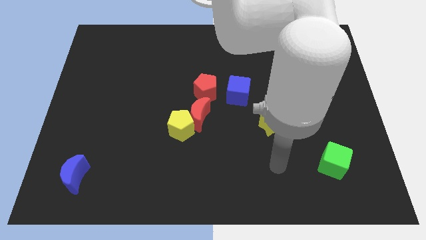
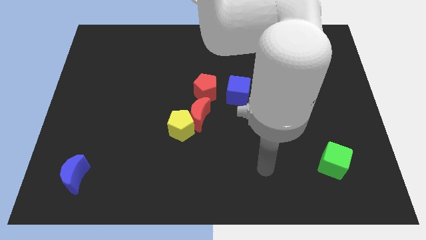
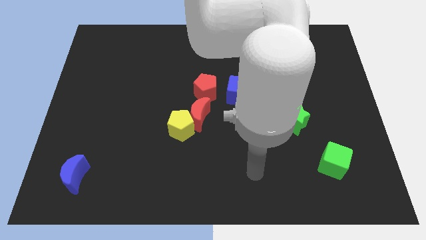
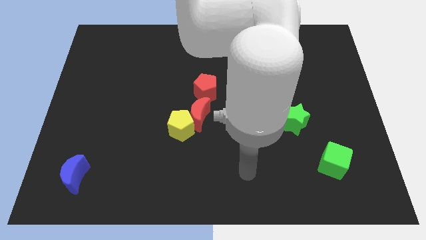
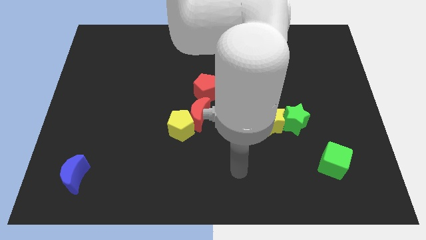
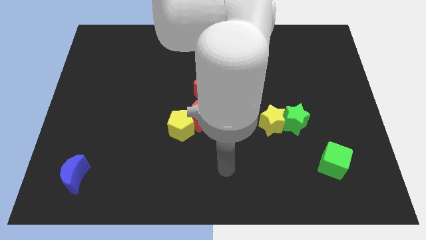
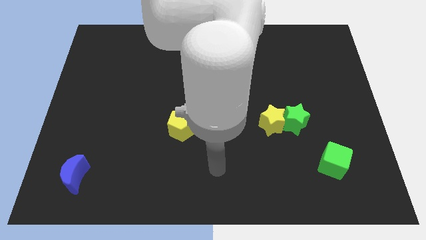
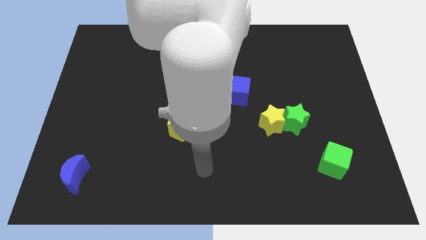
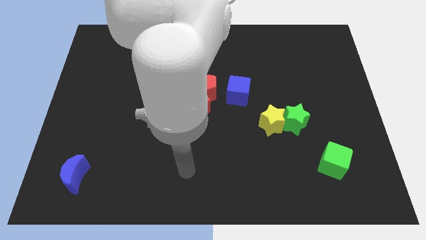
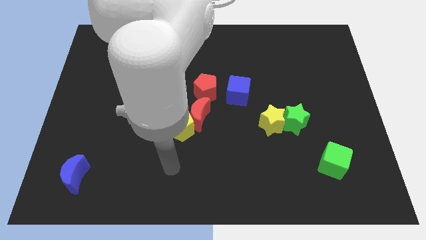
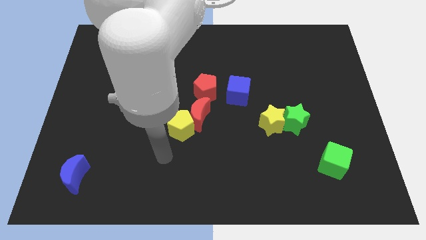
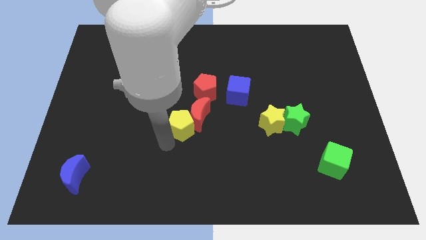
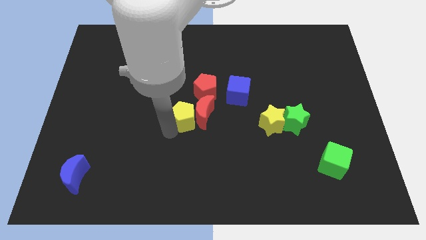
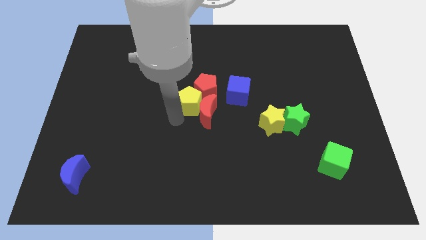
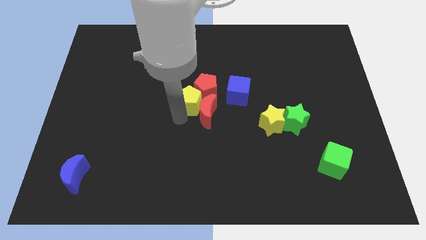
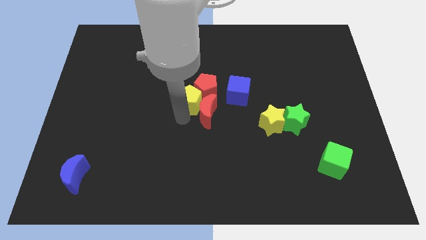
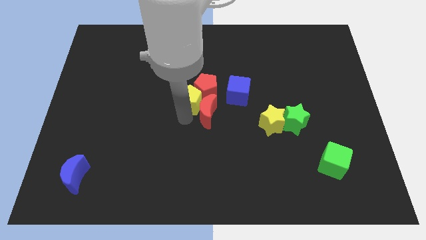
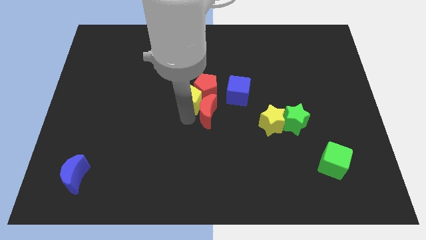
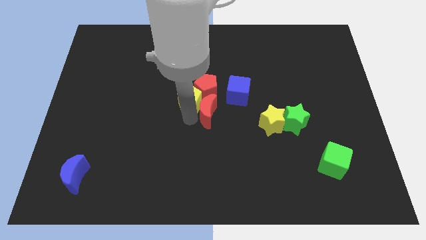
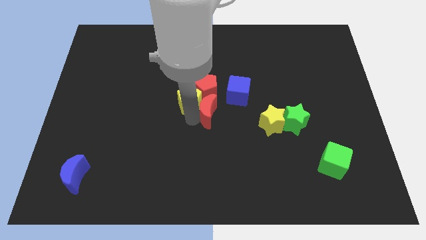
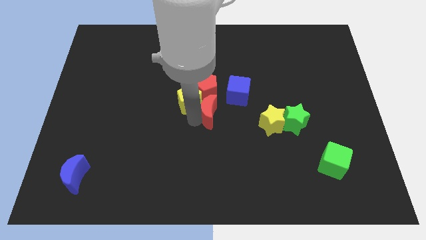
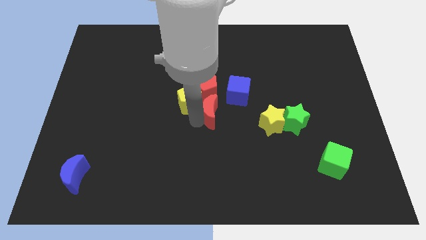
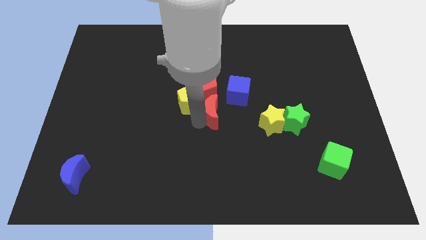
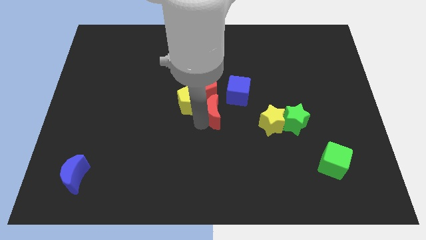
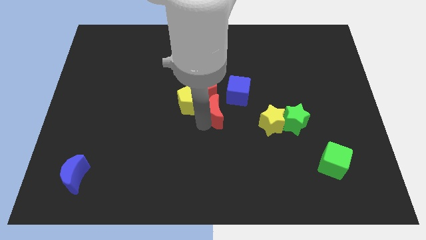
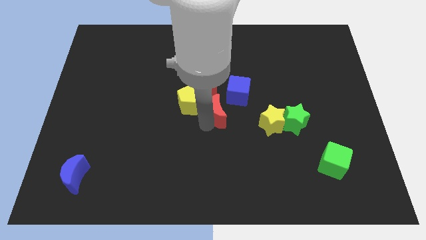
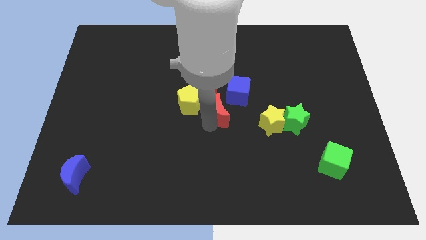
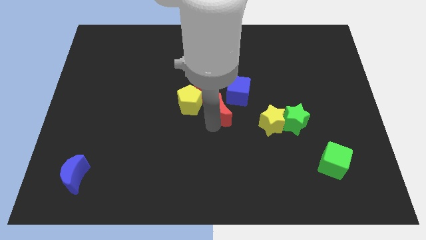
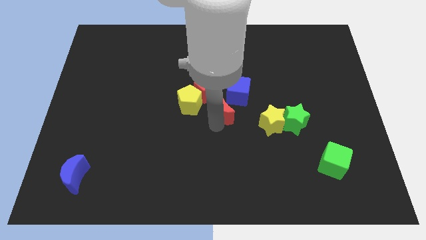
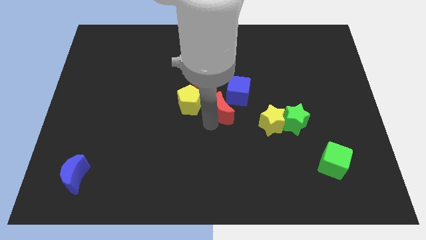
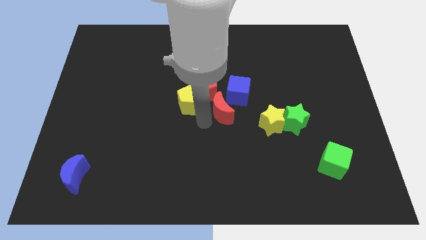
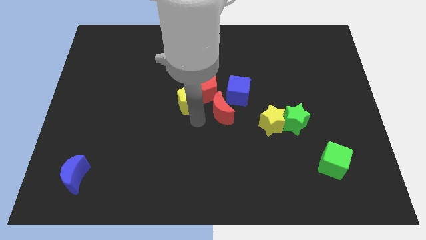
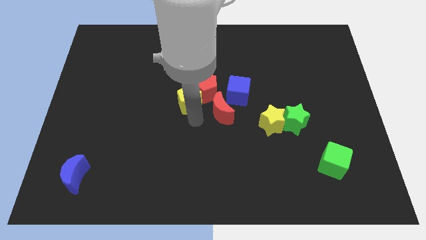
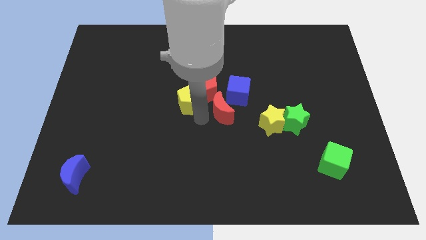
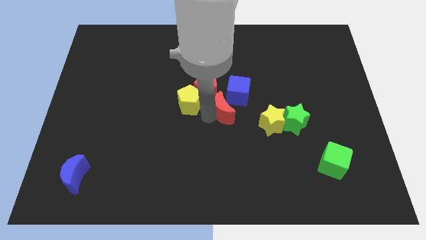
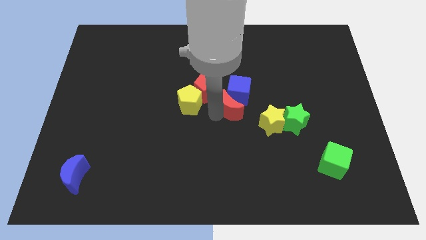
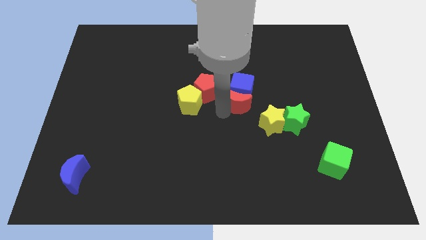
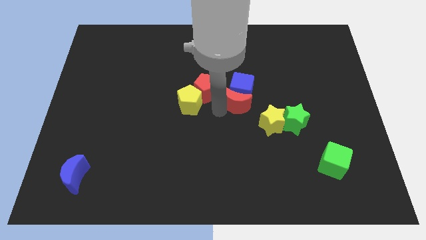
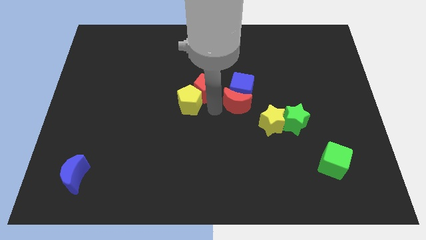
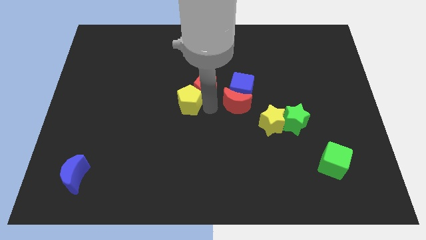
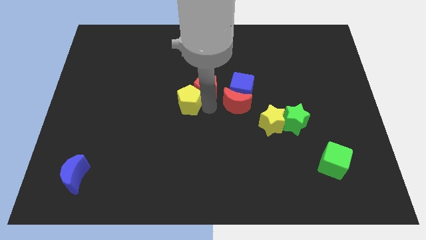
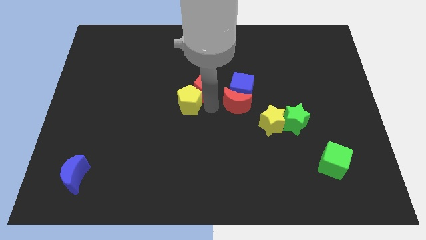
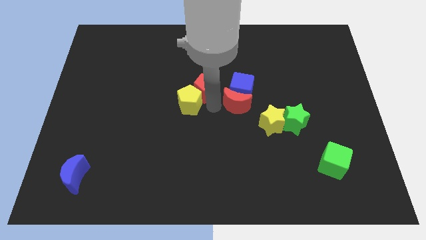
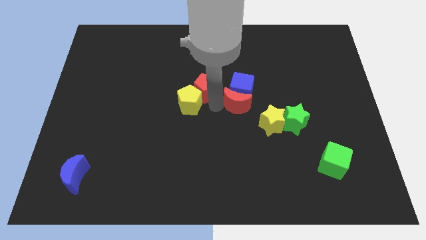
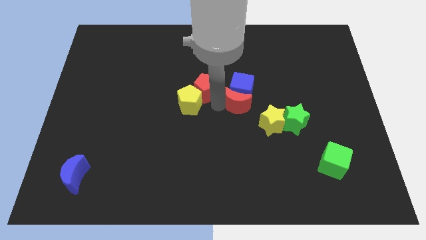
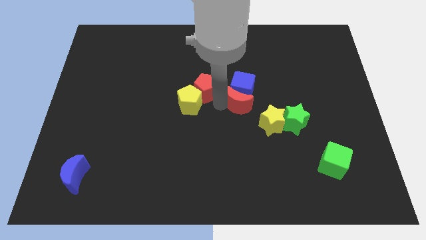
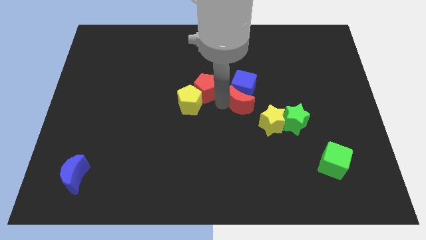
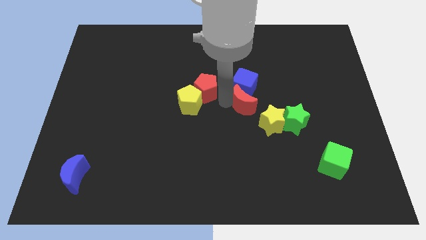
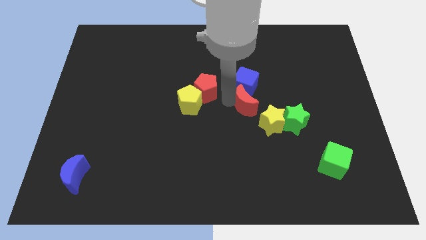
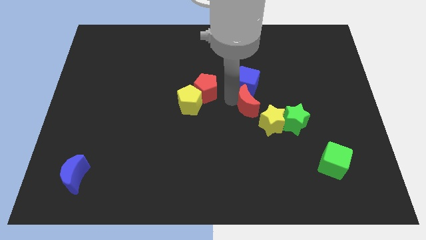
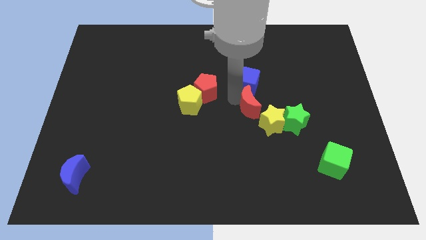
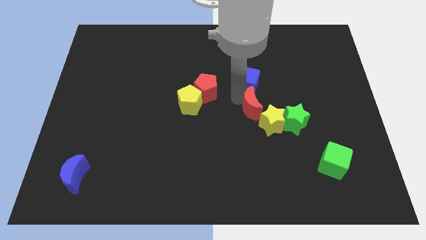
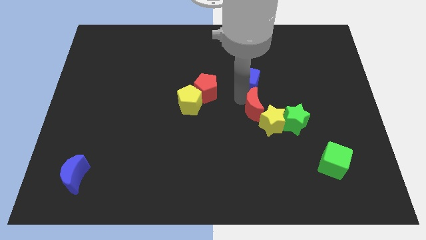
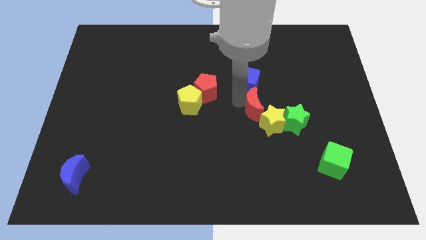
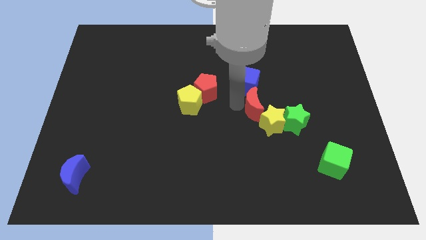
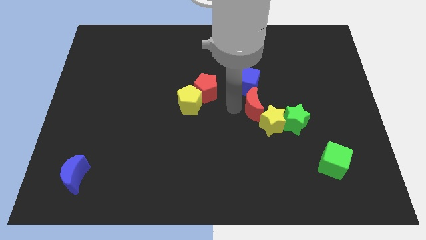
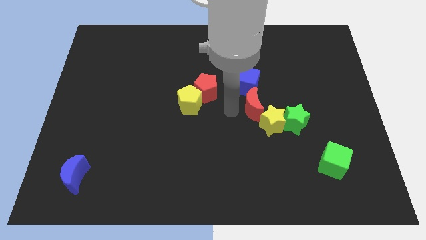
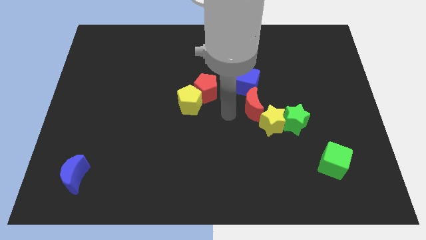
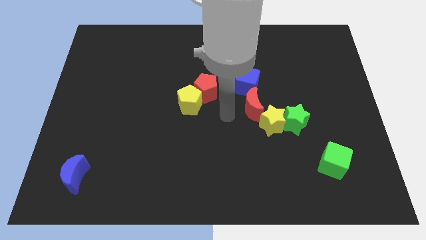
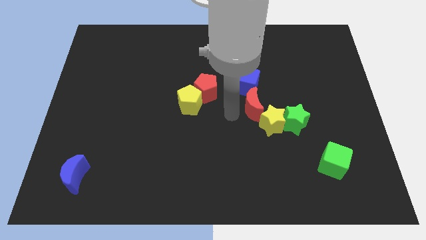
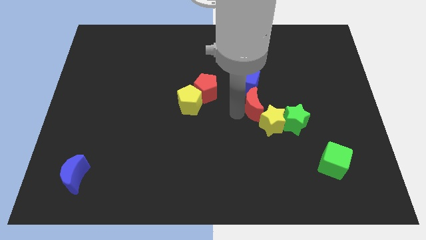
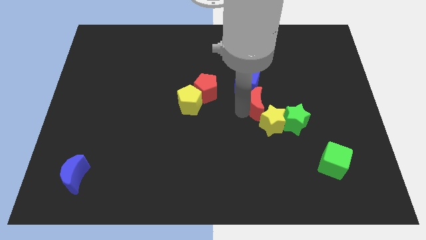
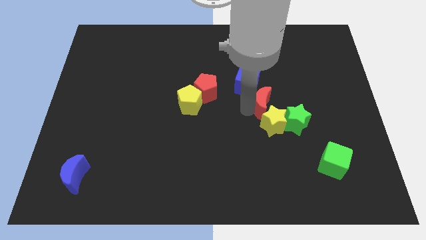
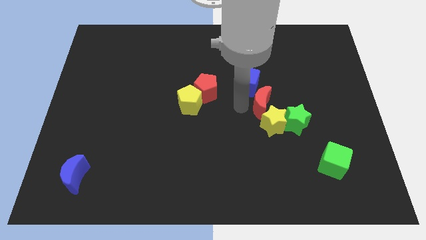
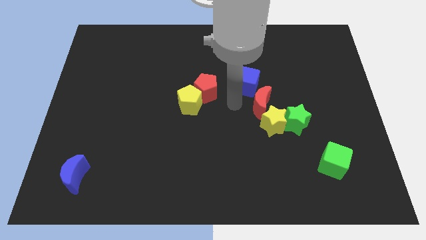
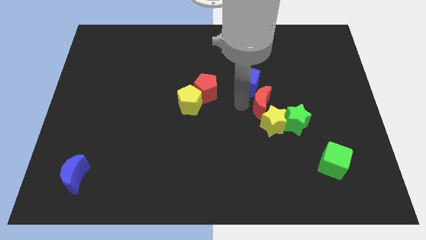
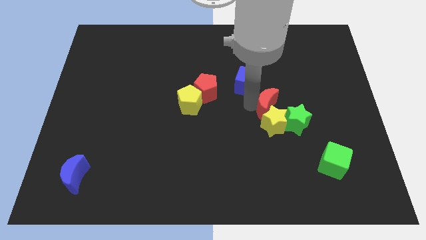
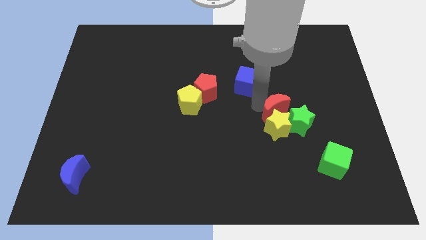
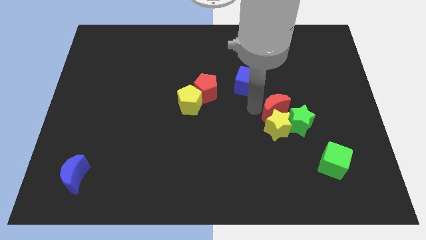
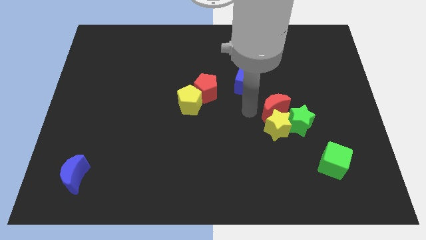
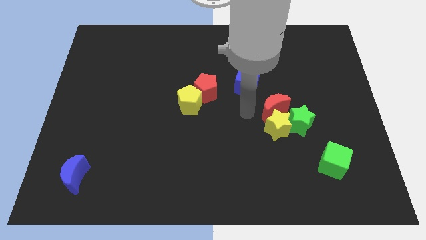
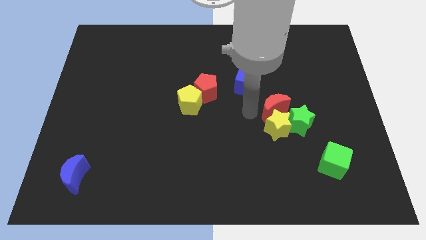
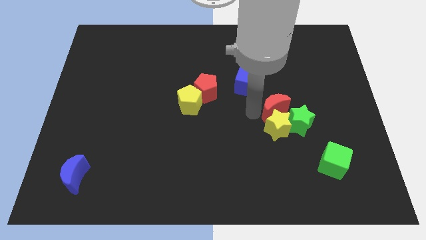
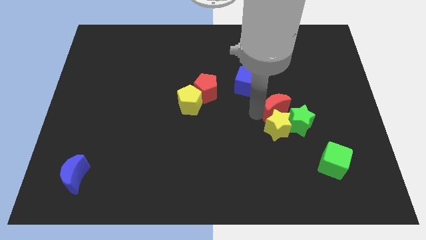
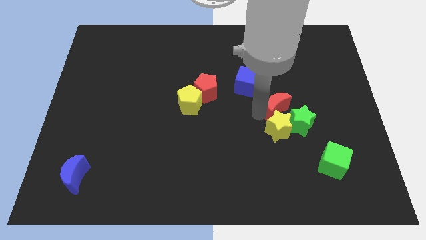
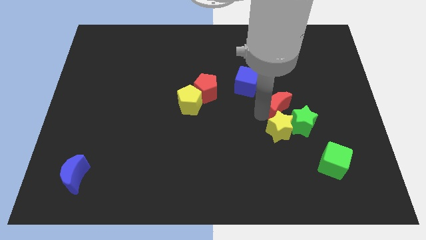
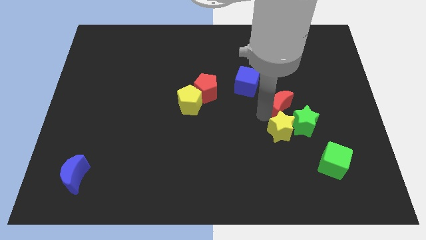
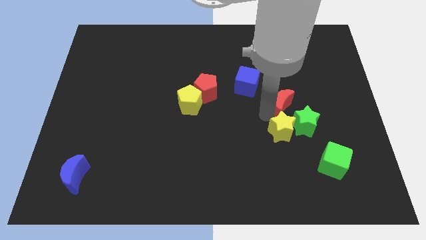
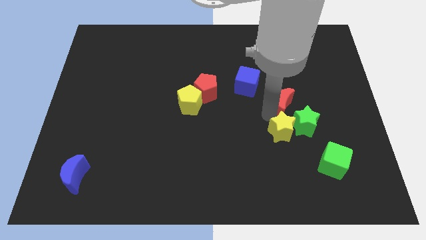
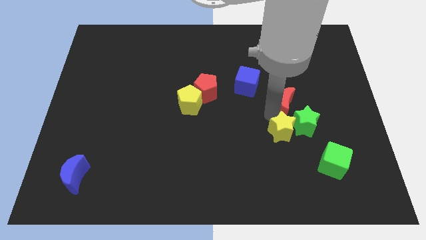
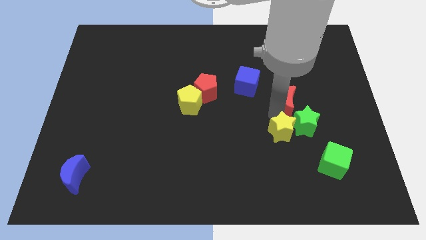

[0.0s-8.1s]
push the red moon to the right
